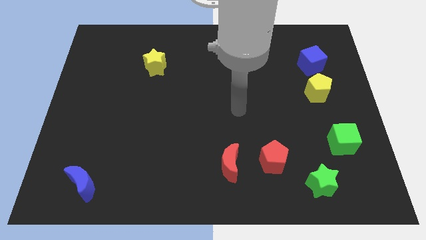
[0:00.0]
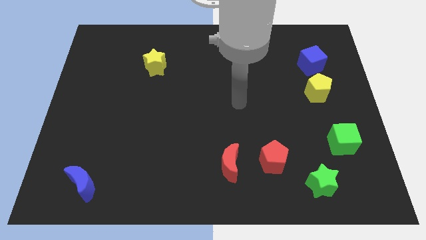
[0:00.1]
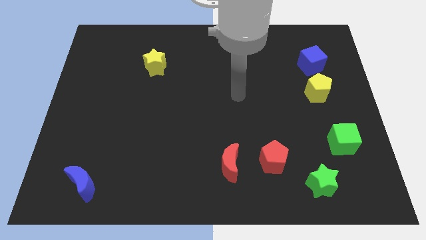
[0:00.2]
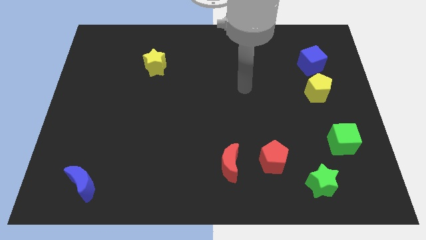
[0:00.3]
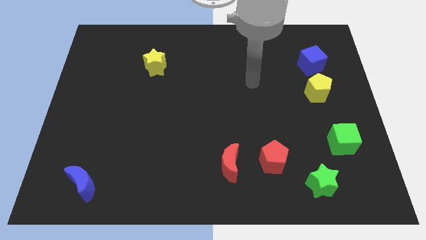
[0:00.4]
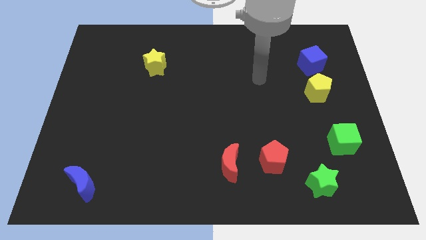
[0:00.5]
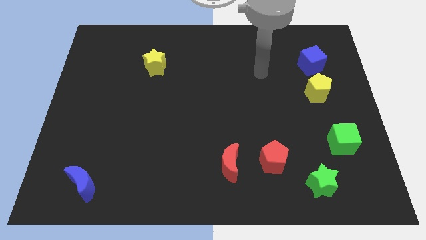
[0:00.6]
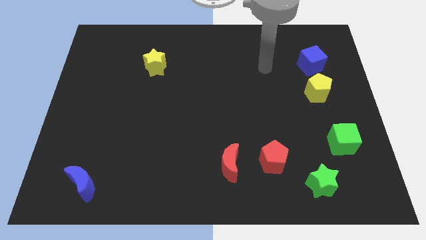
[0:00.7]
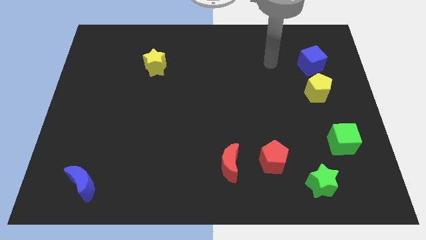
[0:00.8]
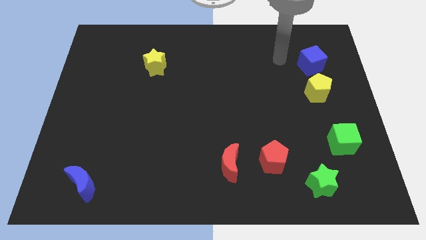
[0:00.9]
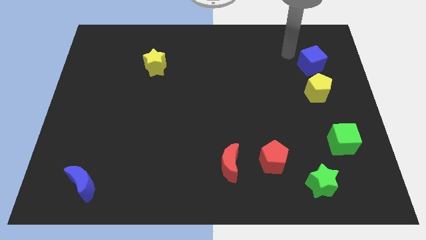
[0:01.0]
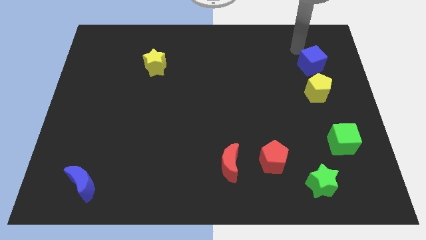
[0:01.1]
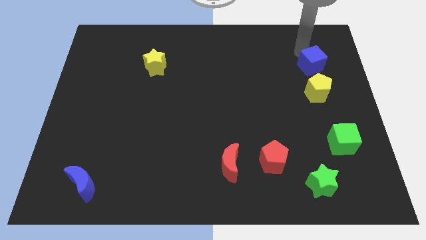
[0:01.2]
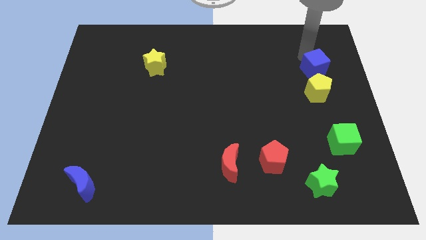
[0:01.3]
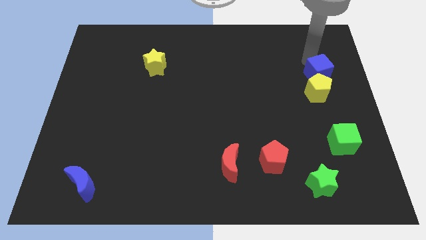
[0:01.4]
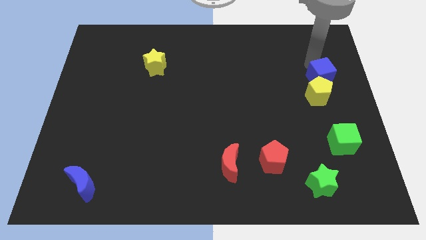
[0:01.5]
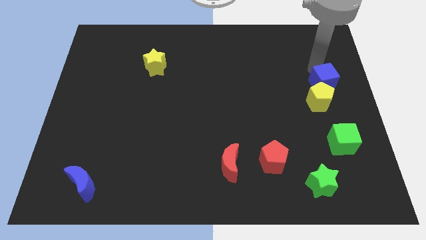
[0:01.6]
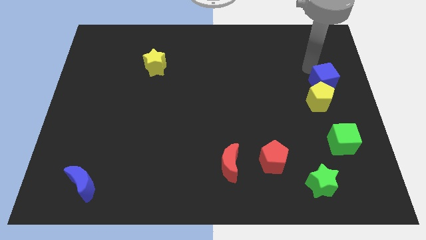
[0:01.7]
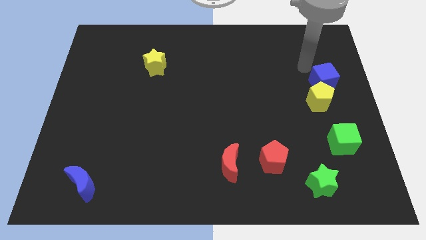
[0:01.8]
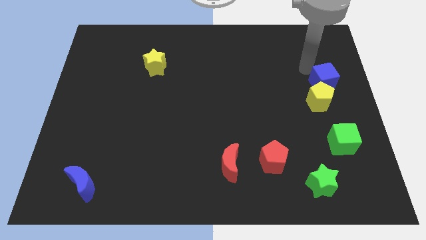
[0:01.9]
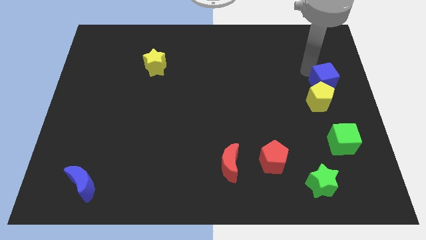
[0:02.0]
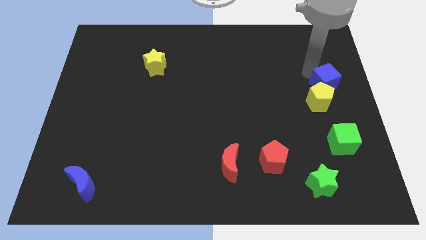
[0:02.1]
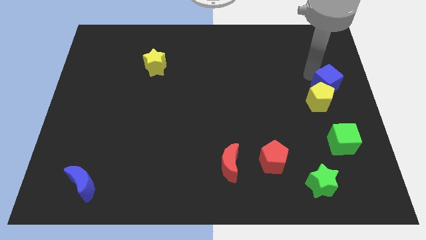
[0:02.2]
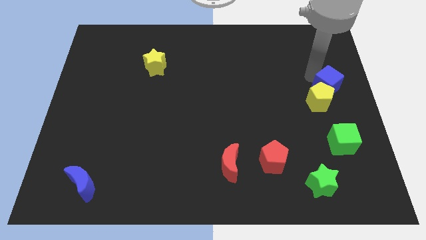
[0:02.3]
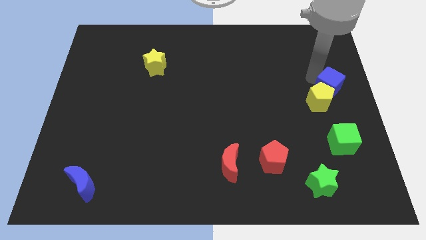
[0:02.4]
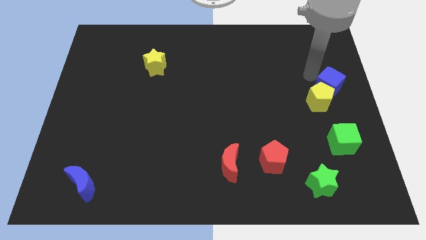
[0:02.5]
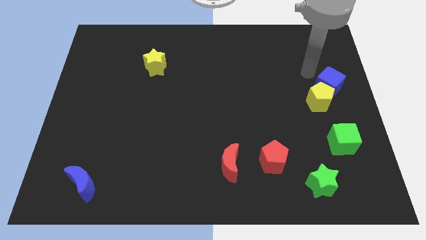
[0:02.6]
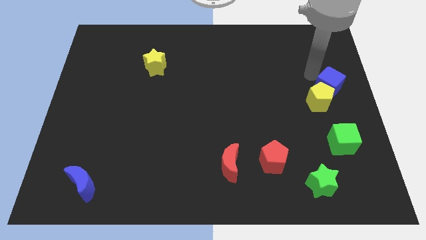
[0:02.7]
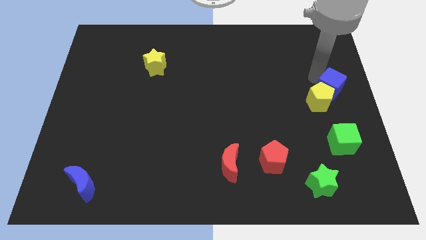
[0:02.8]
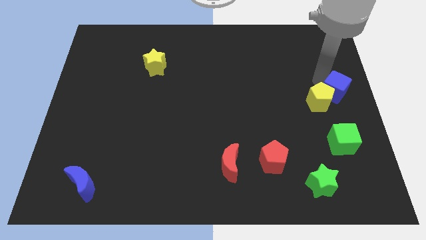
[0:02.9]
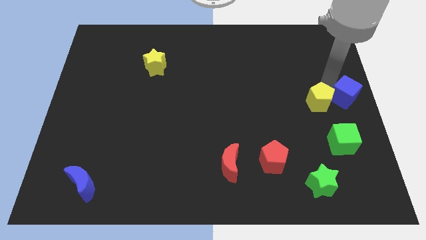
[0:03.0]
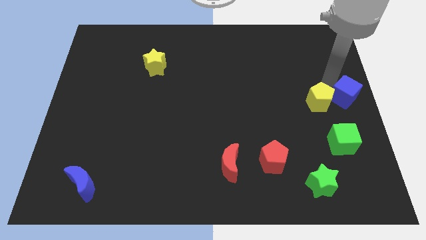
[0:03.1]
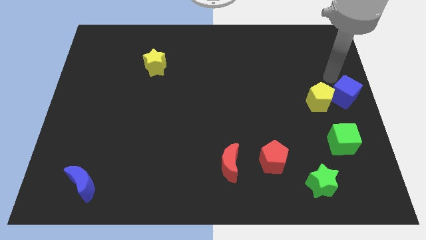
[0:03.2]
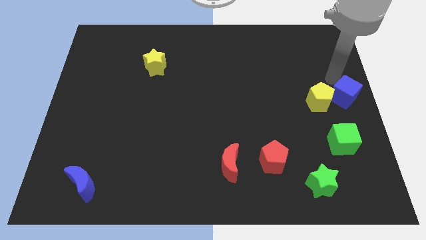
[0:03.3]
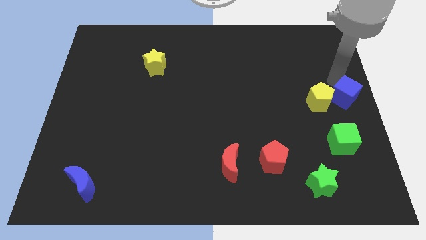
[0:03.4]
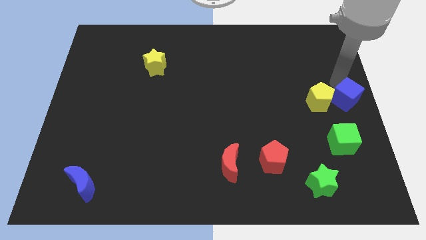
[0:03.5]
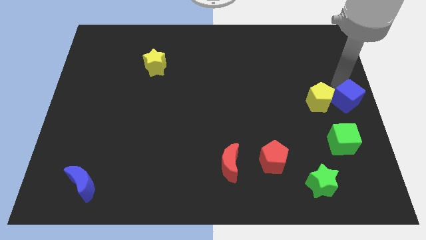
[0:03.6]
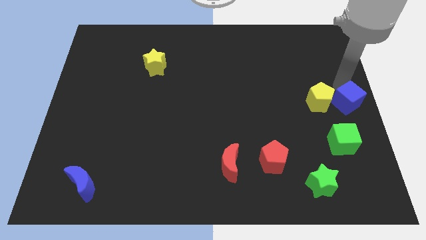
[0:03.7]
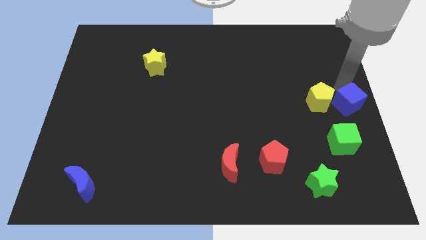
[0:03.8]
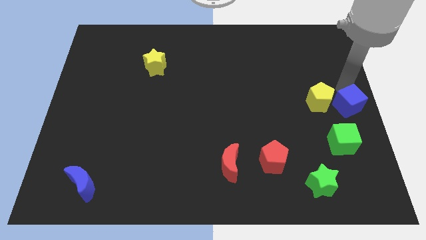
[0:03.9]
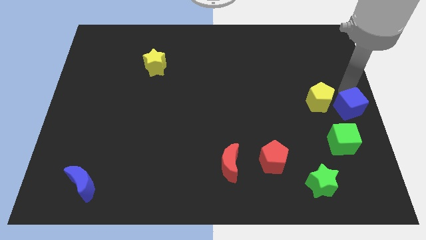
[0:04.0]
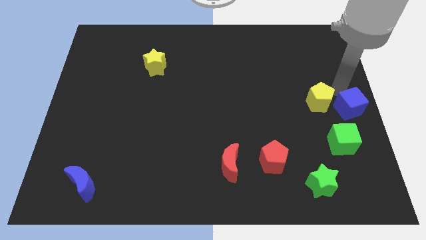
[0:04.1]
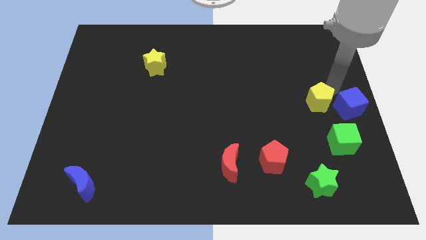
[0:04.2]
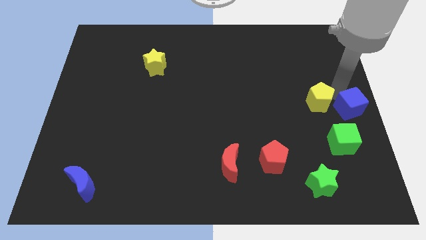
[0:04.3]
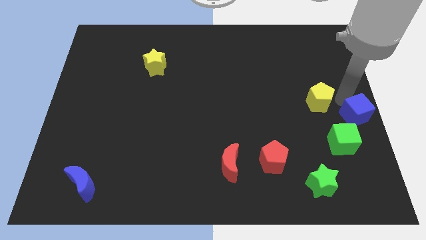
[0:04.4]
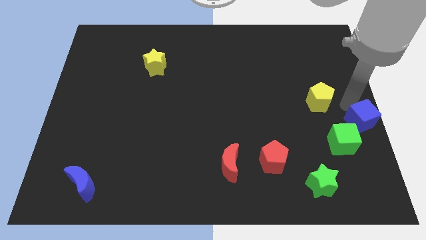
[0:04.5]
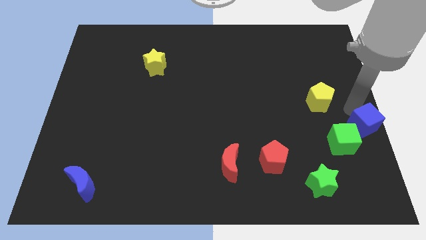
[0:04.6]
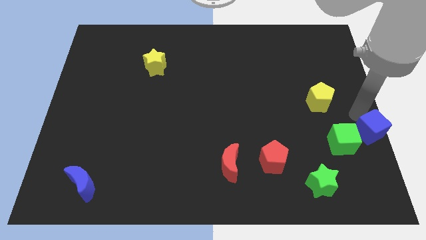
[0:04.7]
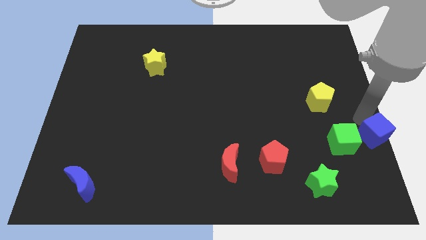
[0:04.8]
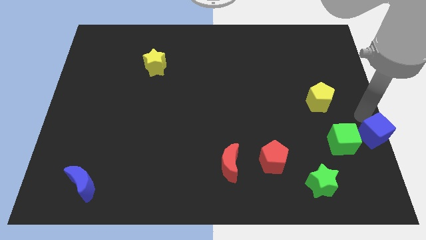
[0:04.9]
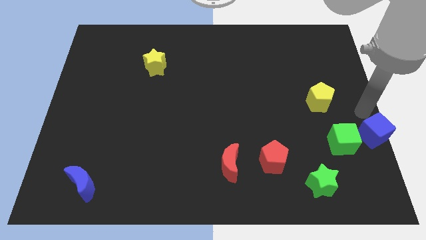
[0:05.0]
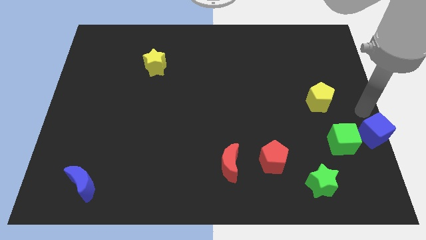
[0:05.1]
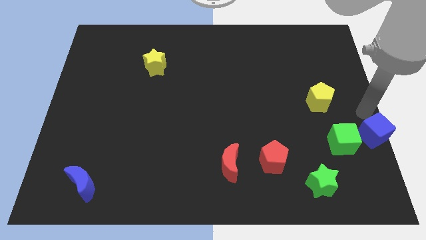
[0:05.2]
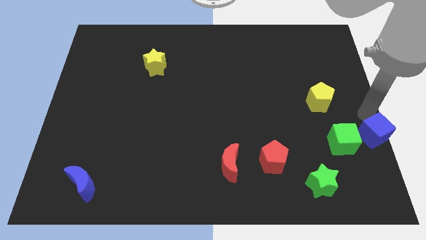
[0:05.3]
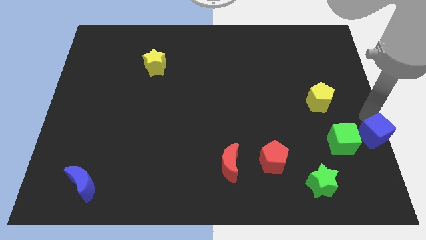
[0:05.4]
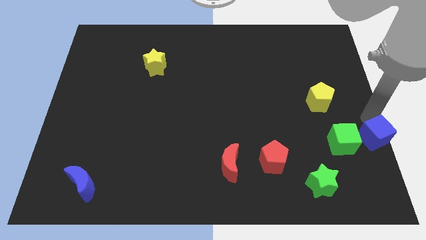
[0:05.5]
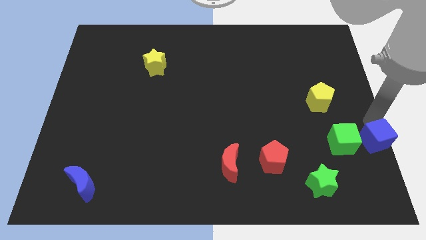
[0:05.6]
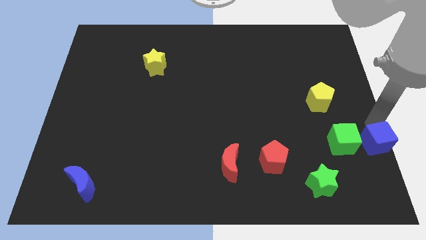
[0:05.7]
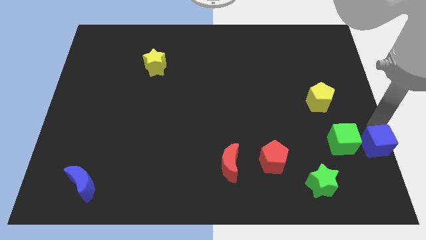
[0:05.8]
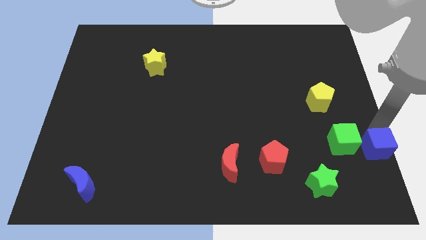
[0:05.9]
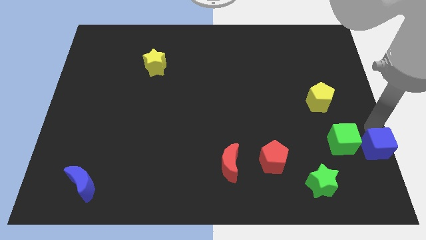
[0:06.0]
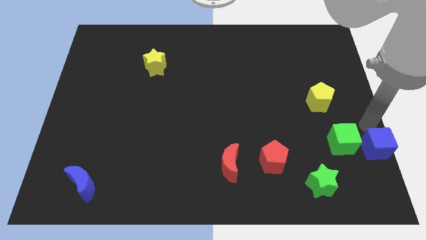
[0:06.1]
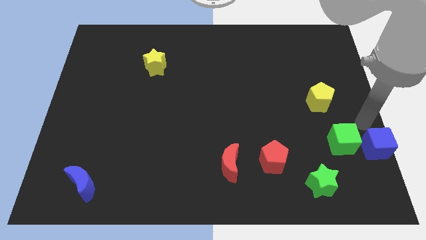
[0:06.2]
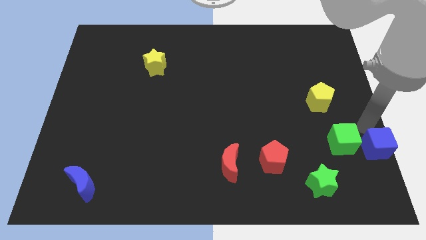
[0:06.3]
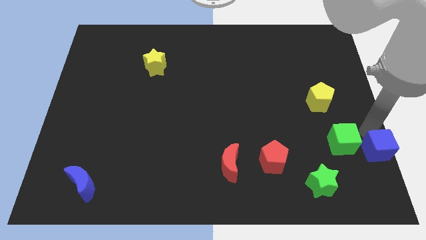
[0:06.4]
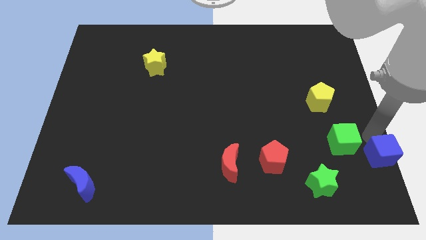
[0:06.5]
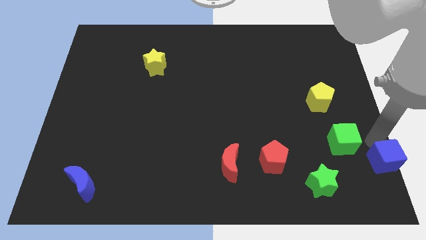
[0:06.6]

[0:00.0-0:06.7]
put the blue cube to the bottom right
